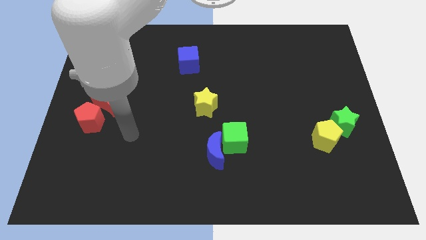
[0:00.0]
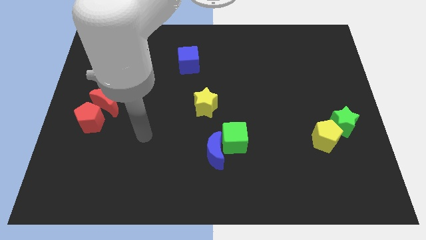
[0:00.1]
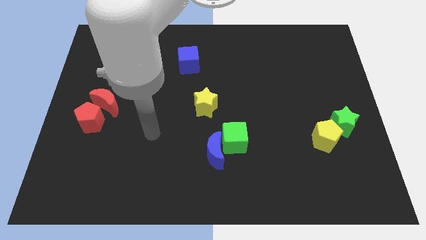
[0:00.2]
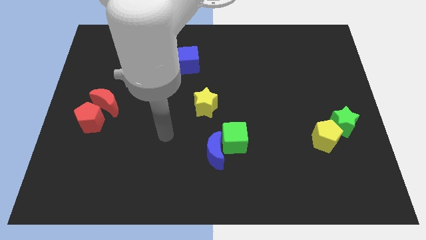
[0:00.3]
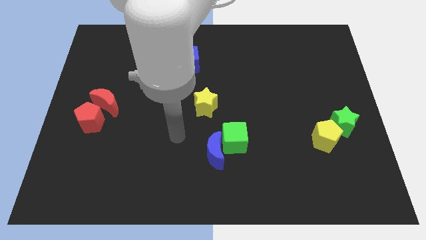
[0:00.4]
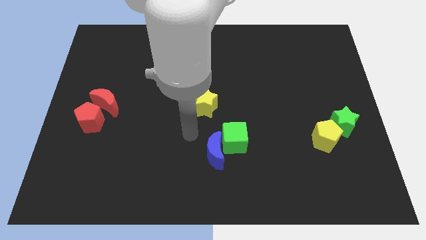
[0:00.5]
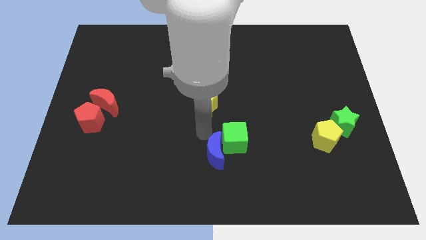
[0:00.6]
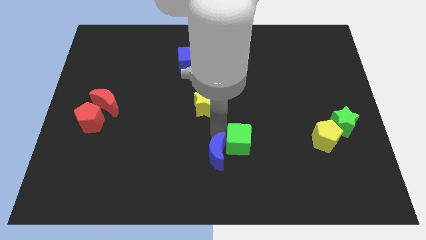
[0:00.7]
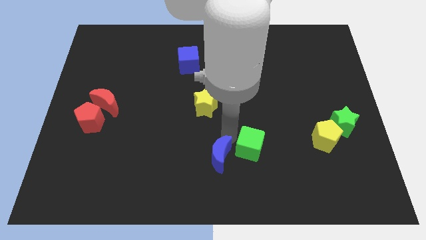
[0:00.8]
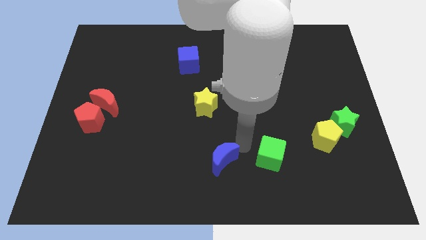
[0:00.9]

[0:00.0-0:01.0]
pull the blue moon apart from the green cube

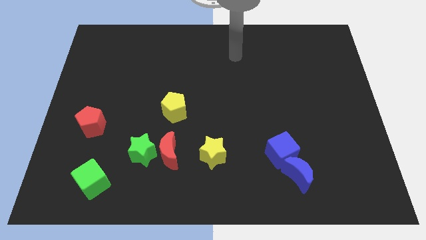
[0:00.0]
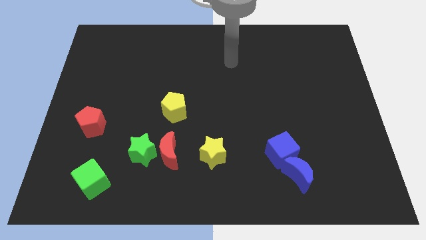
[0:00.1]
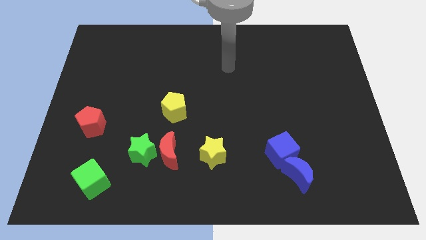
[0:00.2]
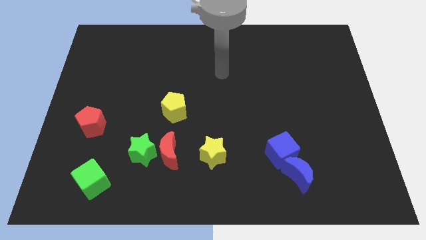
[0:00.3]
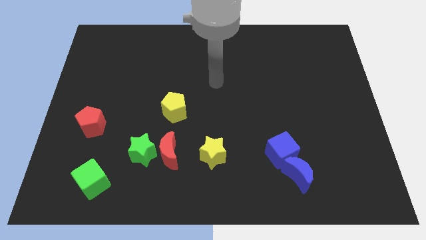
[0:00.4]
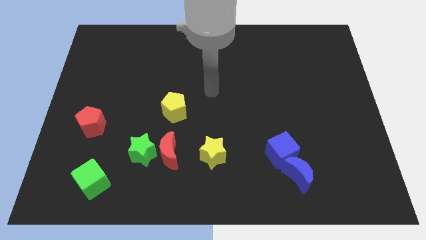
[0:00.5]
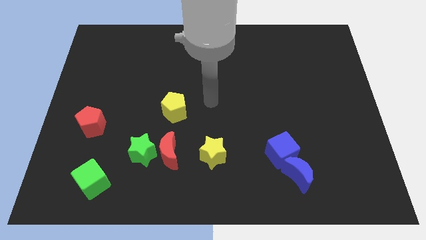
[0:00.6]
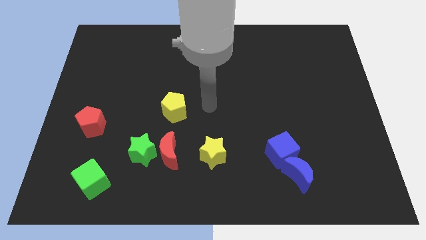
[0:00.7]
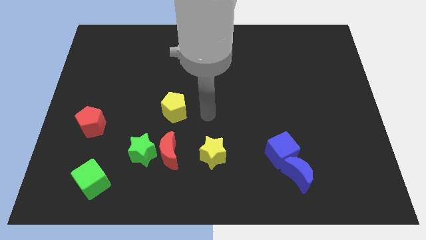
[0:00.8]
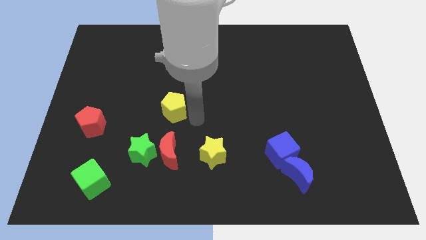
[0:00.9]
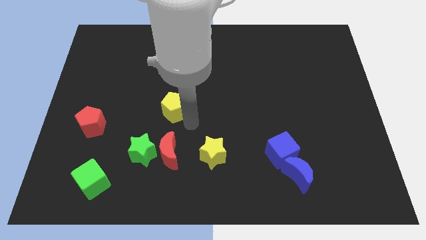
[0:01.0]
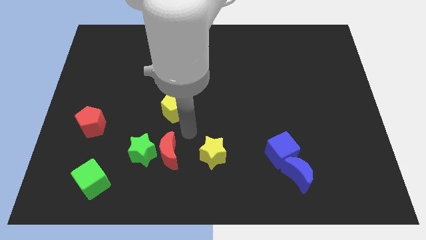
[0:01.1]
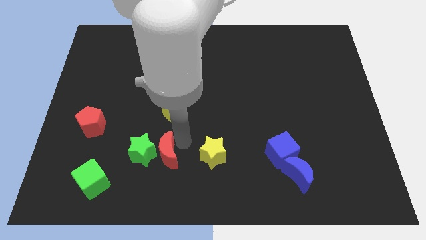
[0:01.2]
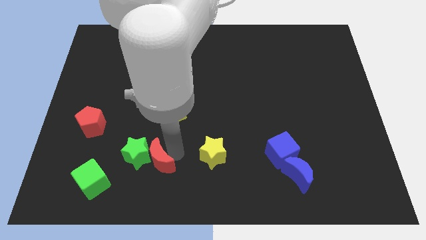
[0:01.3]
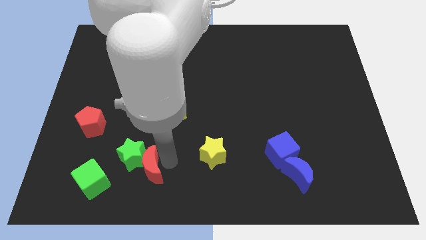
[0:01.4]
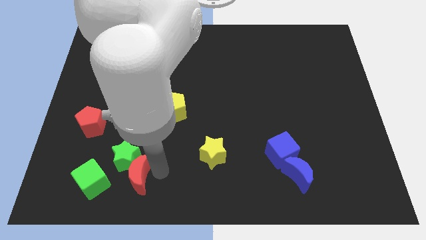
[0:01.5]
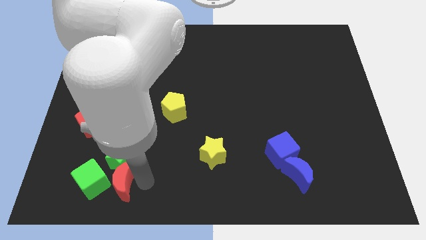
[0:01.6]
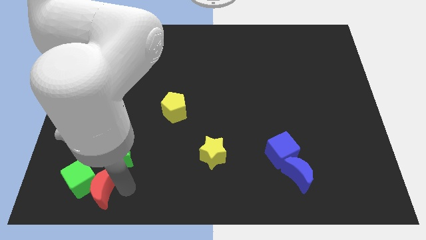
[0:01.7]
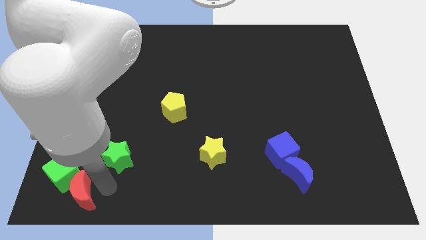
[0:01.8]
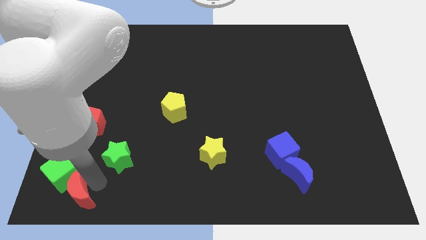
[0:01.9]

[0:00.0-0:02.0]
separate the green star from the red moon

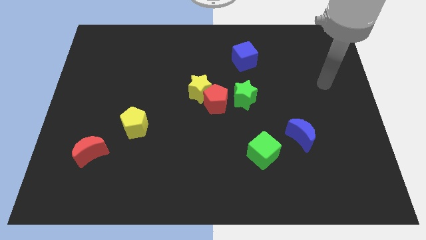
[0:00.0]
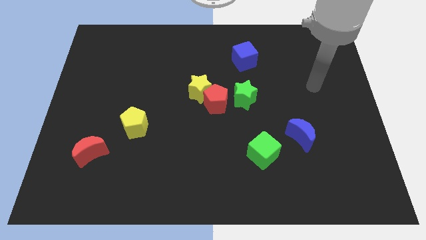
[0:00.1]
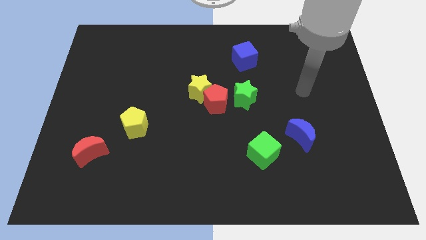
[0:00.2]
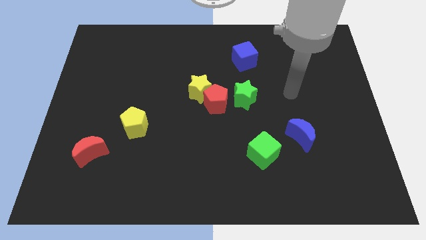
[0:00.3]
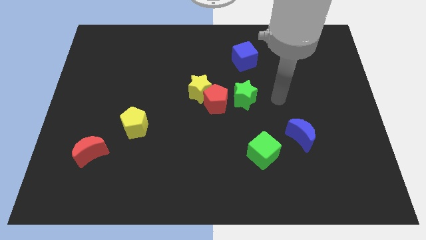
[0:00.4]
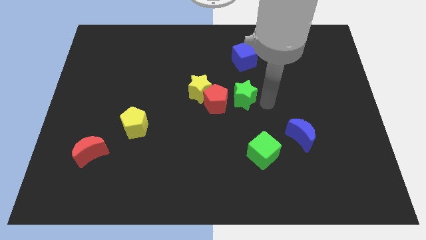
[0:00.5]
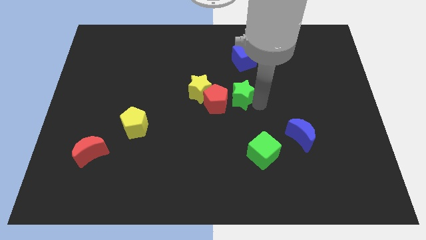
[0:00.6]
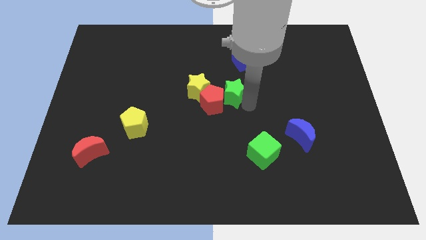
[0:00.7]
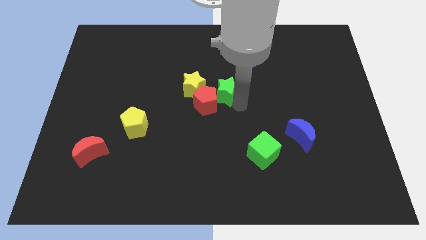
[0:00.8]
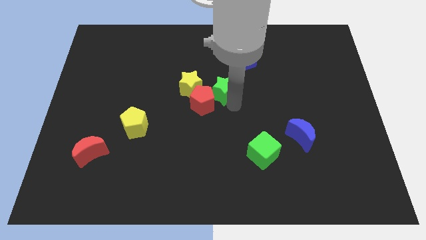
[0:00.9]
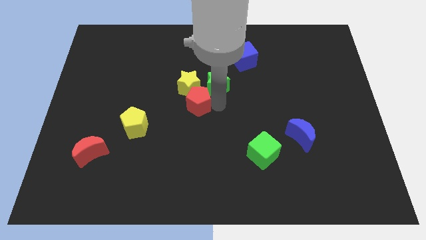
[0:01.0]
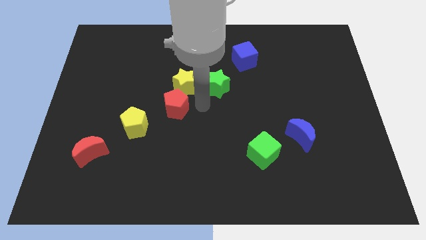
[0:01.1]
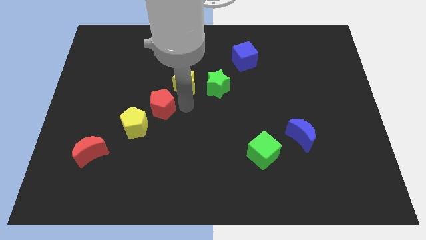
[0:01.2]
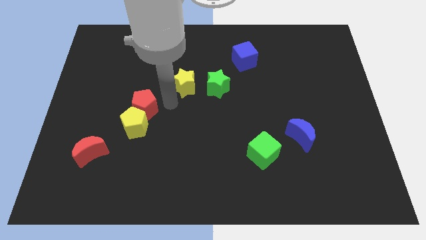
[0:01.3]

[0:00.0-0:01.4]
separate the yellow star from the red pentagon

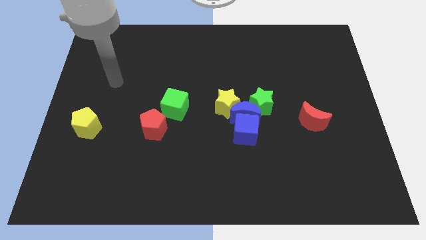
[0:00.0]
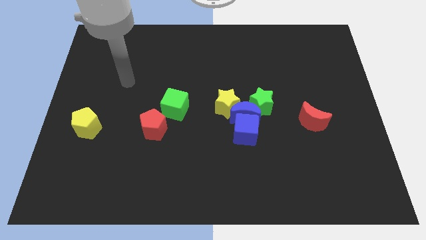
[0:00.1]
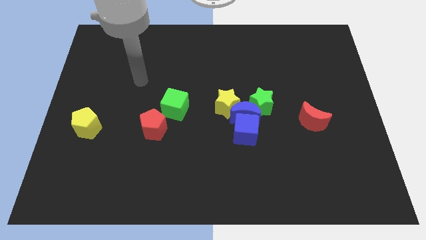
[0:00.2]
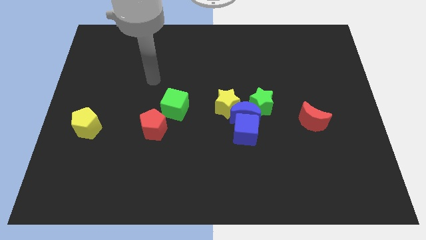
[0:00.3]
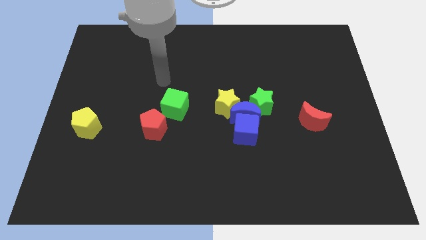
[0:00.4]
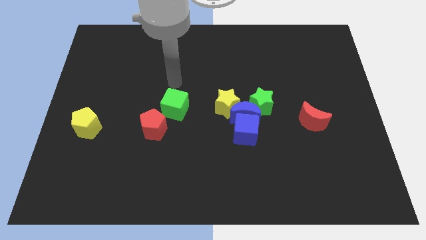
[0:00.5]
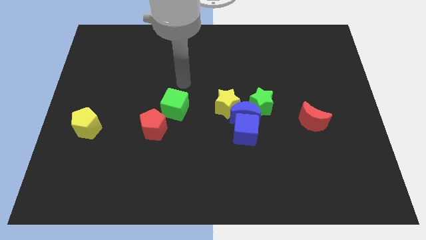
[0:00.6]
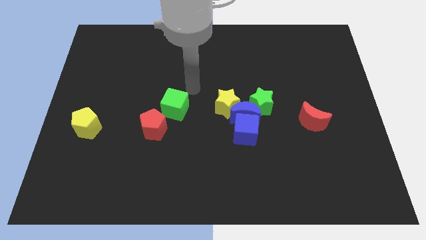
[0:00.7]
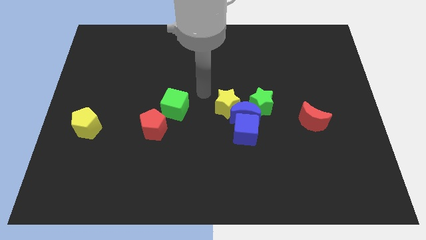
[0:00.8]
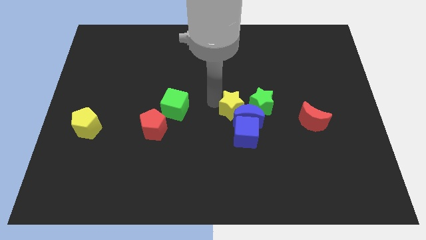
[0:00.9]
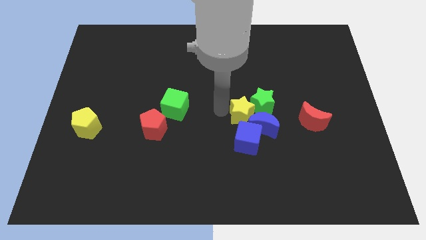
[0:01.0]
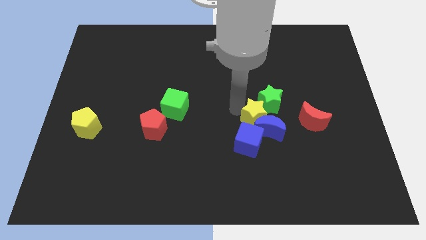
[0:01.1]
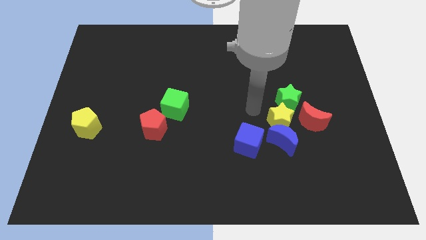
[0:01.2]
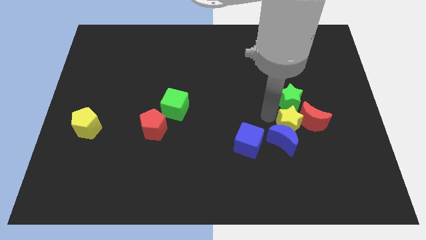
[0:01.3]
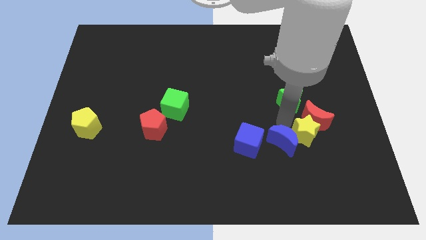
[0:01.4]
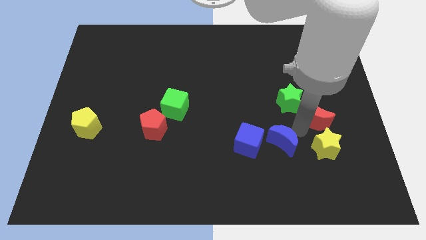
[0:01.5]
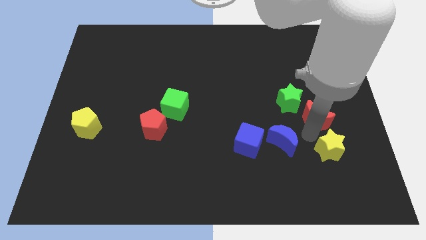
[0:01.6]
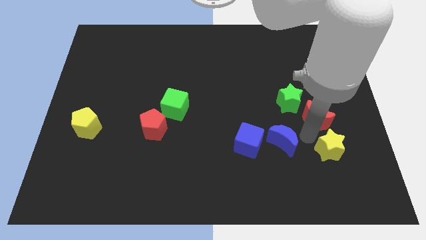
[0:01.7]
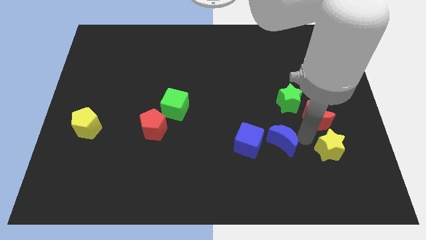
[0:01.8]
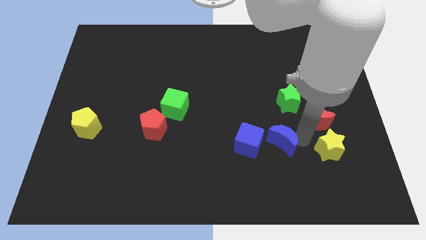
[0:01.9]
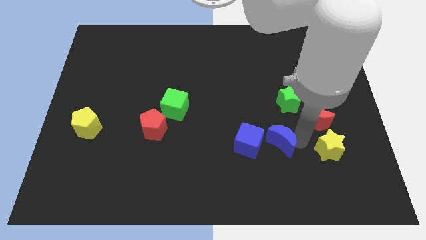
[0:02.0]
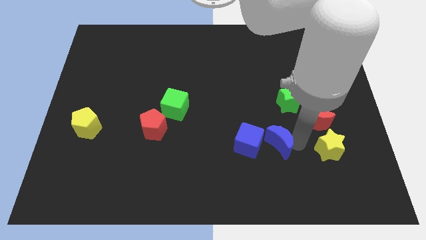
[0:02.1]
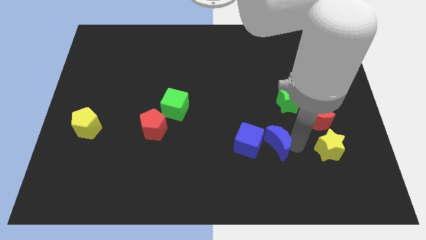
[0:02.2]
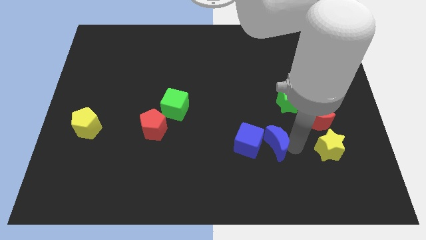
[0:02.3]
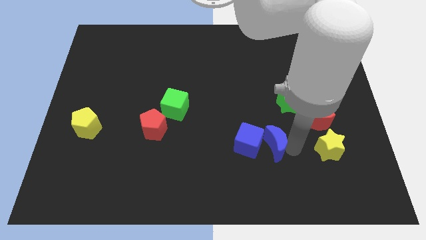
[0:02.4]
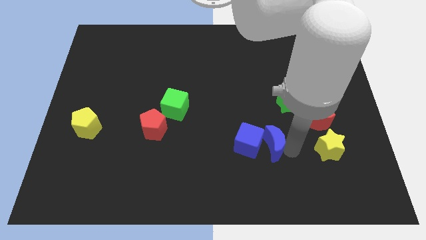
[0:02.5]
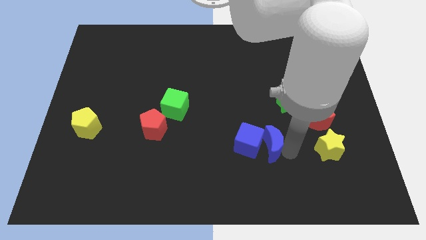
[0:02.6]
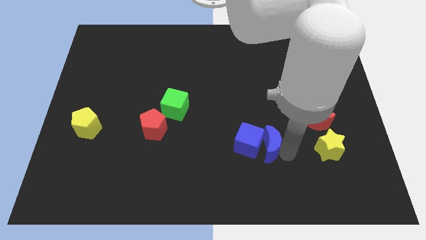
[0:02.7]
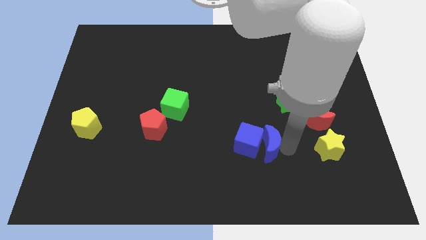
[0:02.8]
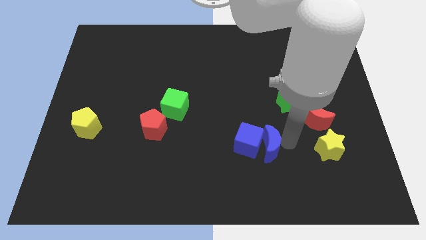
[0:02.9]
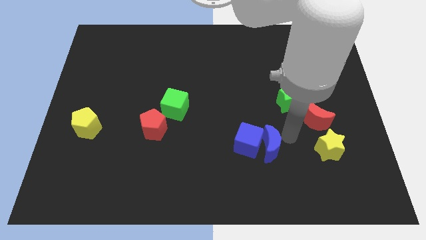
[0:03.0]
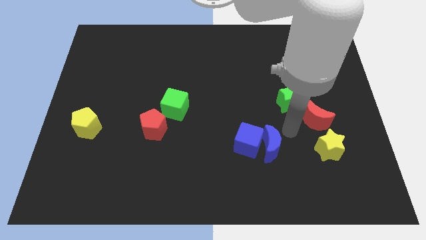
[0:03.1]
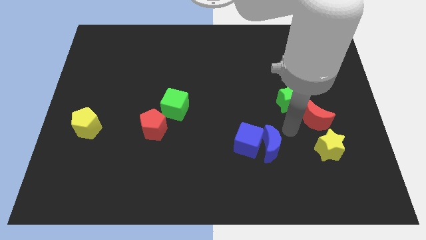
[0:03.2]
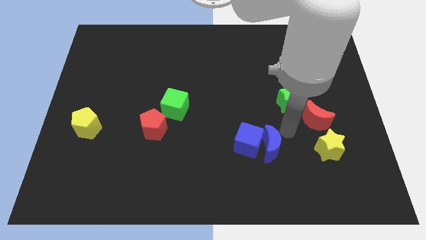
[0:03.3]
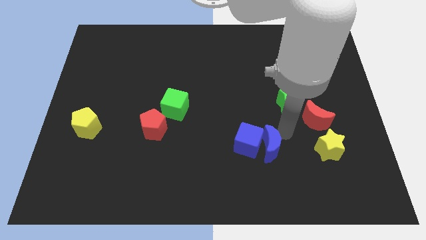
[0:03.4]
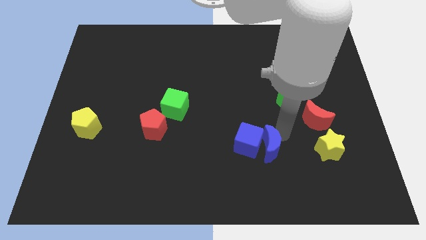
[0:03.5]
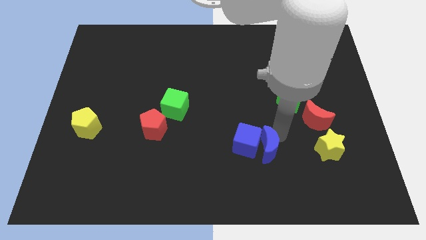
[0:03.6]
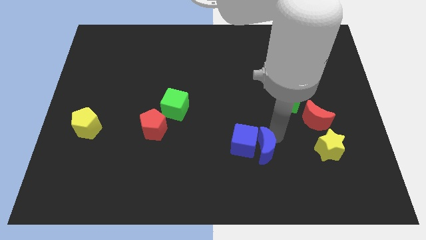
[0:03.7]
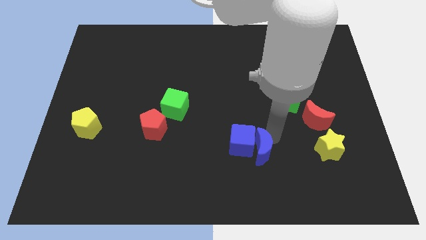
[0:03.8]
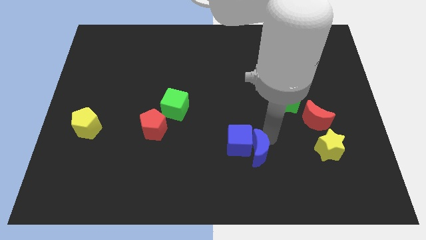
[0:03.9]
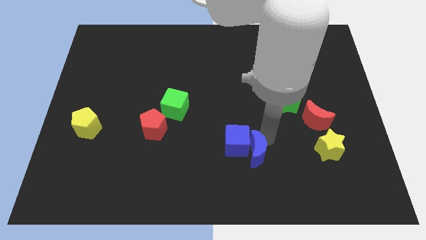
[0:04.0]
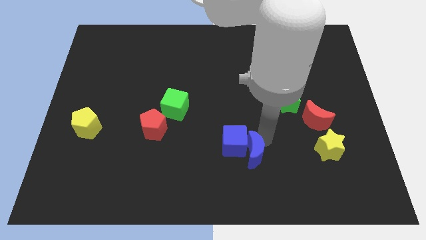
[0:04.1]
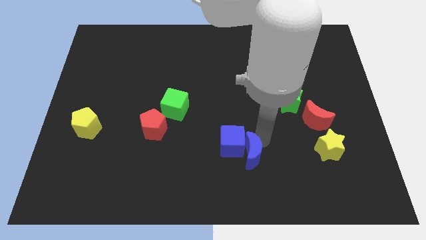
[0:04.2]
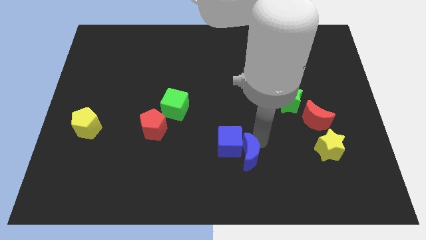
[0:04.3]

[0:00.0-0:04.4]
separate the blue moon from the blue cube, green star, and yellow star

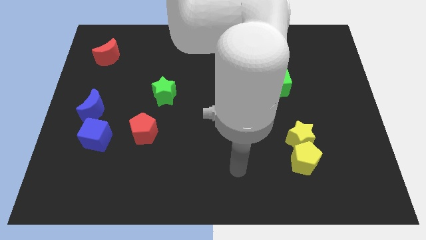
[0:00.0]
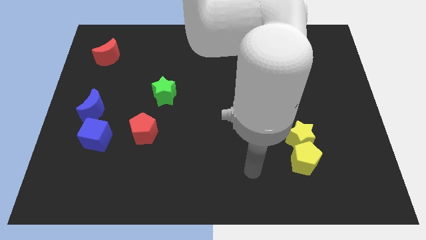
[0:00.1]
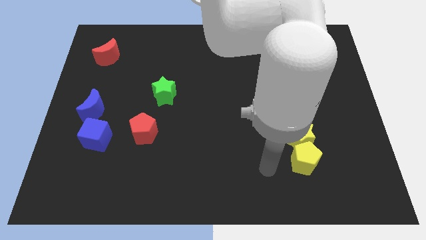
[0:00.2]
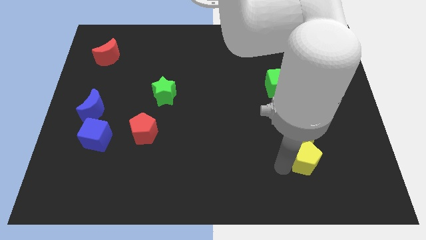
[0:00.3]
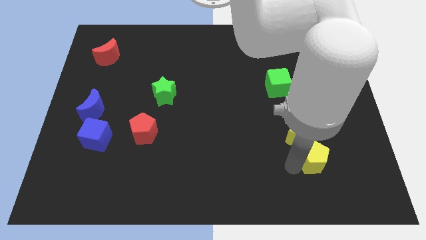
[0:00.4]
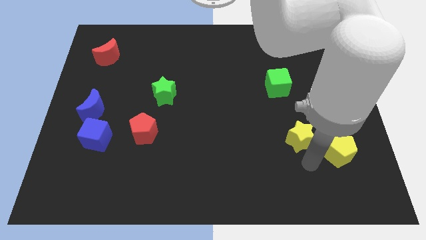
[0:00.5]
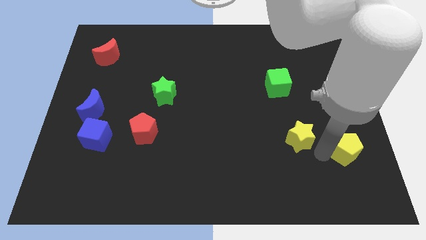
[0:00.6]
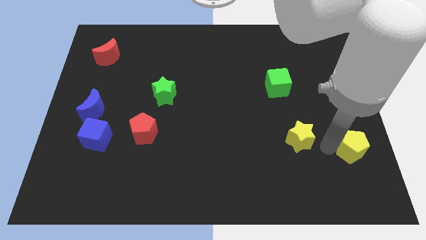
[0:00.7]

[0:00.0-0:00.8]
pull the yellow star apart from the yellow pentagon
